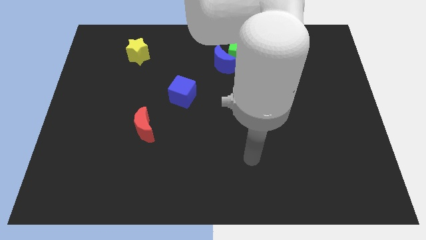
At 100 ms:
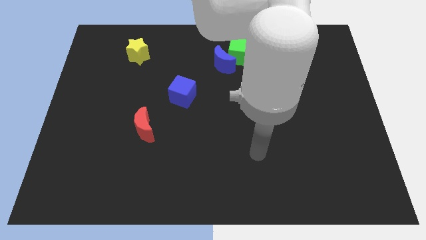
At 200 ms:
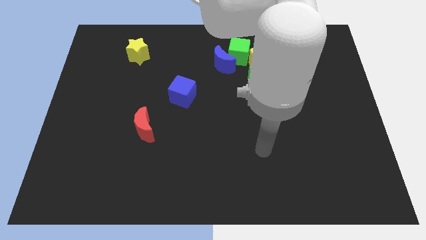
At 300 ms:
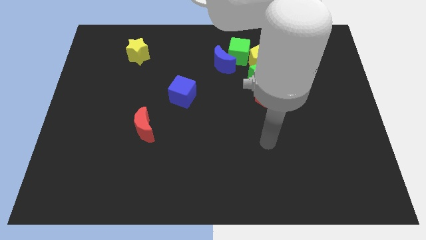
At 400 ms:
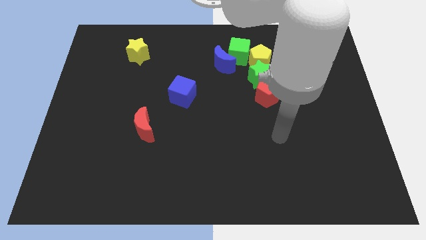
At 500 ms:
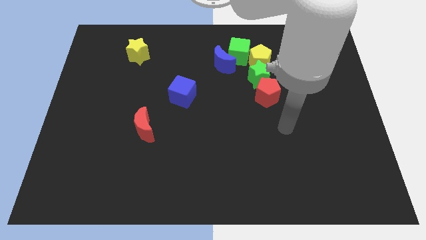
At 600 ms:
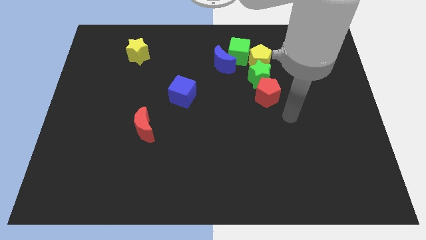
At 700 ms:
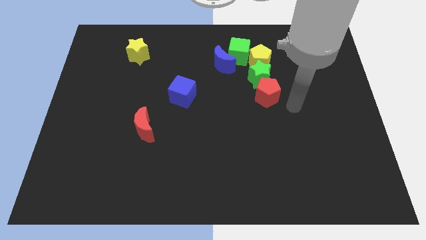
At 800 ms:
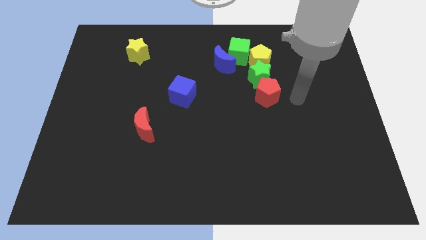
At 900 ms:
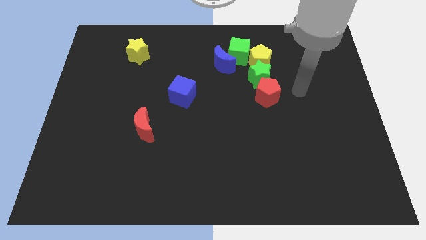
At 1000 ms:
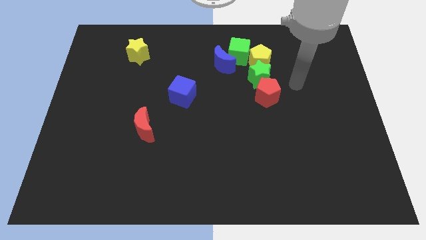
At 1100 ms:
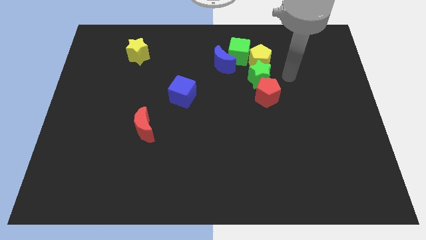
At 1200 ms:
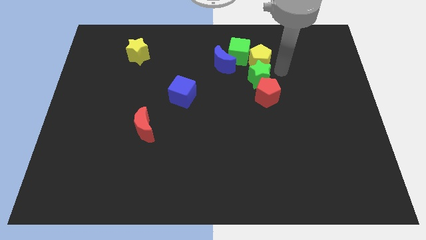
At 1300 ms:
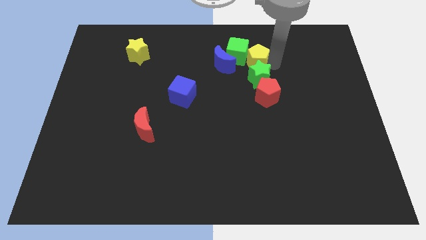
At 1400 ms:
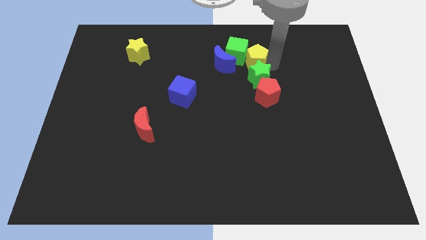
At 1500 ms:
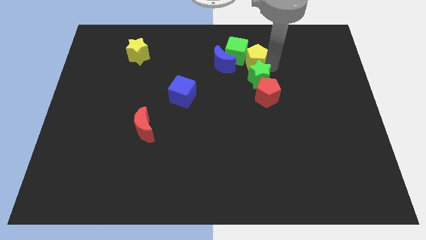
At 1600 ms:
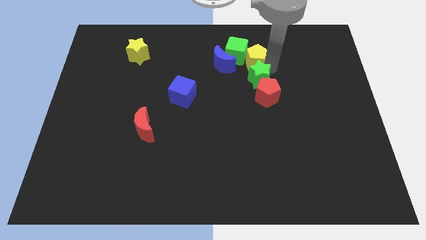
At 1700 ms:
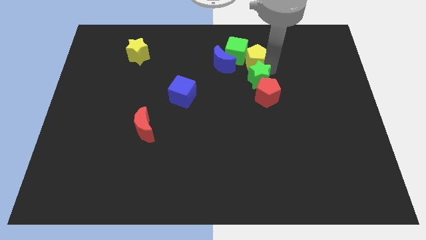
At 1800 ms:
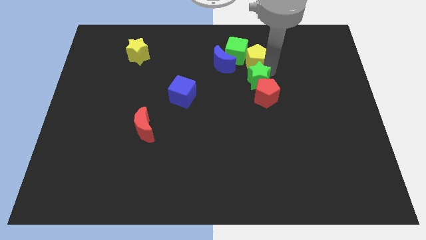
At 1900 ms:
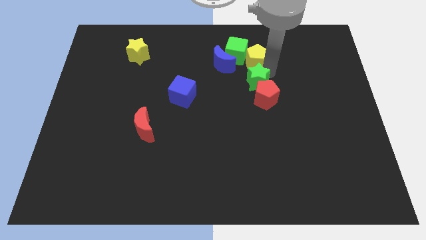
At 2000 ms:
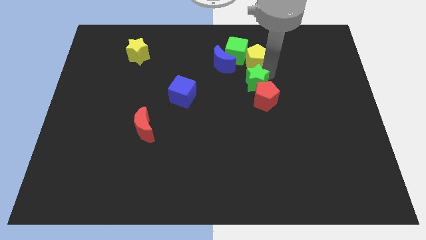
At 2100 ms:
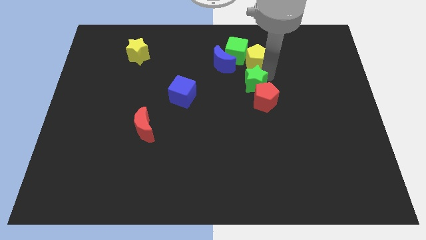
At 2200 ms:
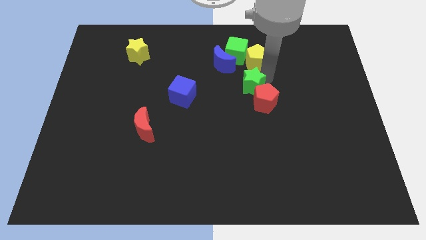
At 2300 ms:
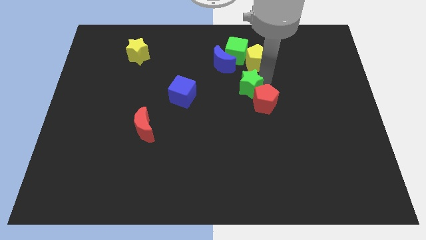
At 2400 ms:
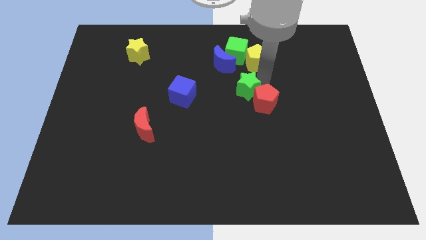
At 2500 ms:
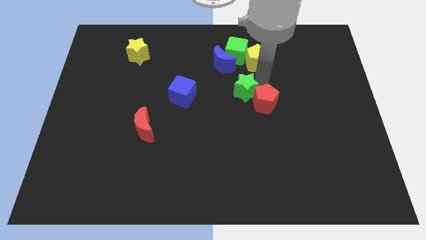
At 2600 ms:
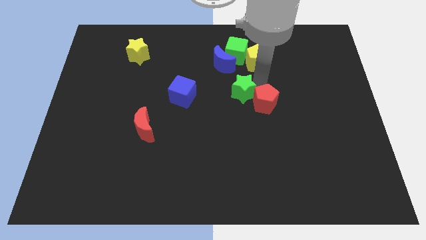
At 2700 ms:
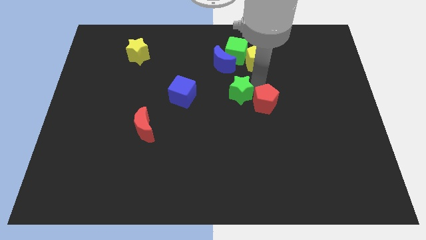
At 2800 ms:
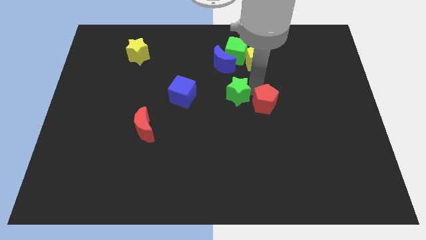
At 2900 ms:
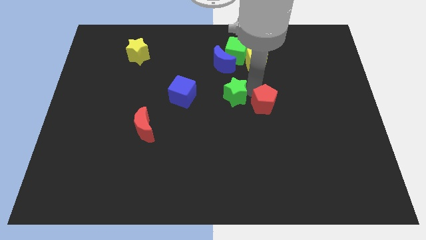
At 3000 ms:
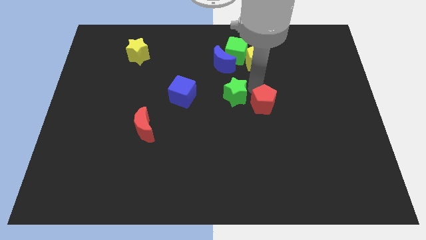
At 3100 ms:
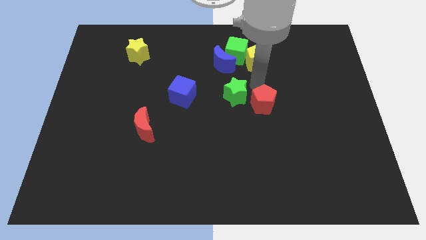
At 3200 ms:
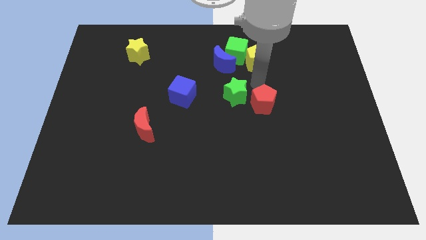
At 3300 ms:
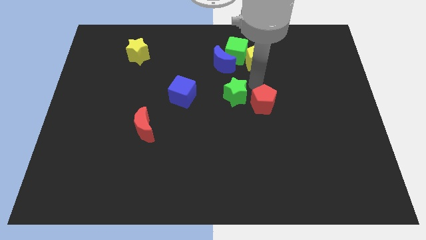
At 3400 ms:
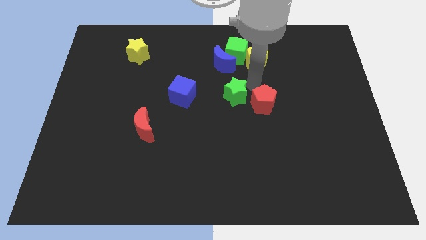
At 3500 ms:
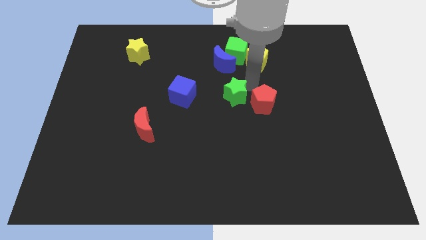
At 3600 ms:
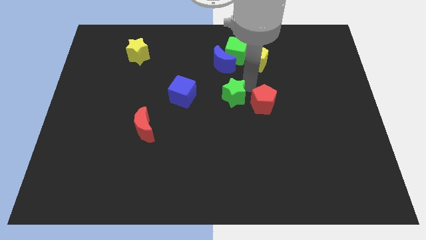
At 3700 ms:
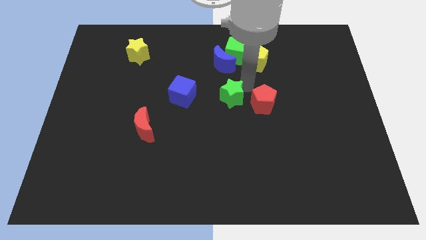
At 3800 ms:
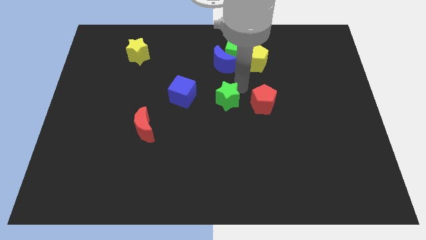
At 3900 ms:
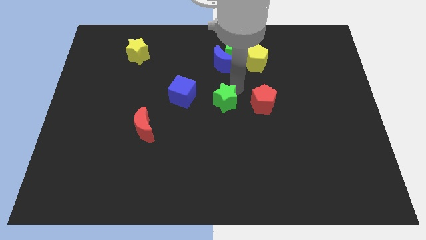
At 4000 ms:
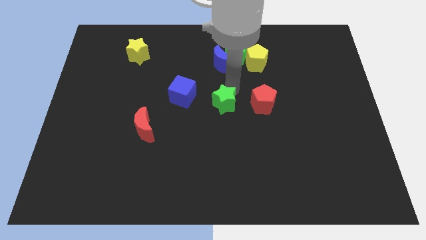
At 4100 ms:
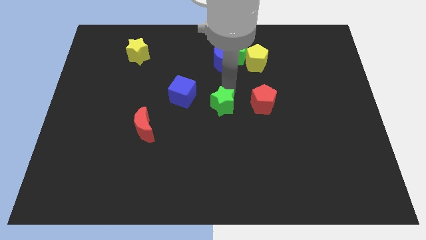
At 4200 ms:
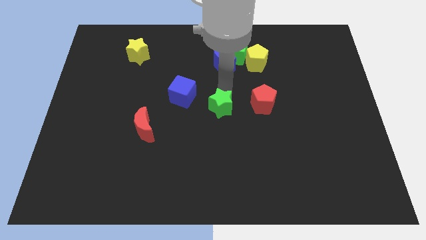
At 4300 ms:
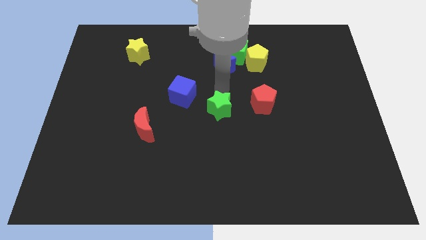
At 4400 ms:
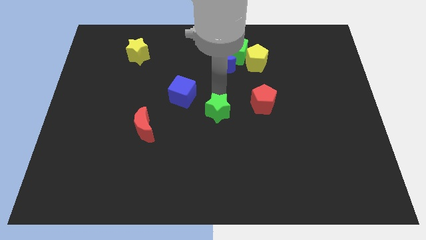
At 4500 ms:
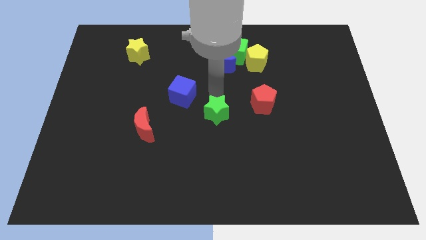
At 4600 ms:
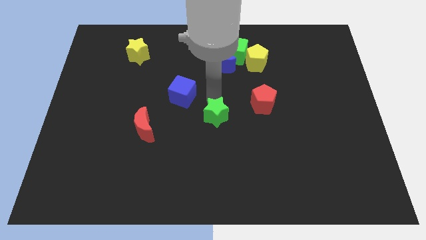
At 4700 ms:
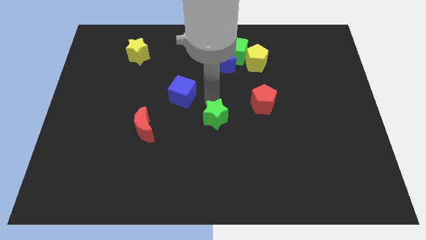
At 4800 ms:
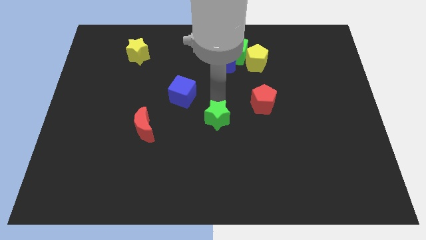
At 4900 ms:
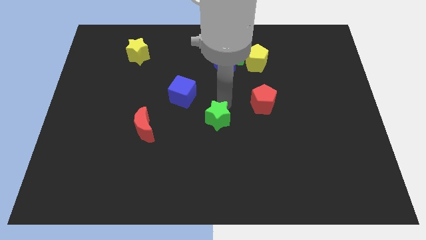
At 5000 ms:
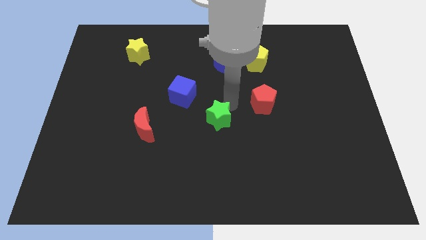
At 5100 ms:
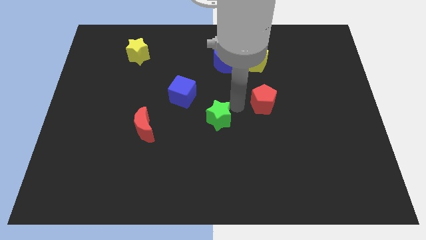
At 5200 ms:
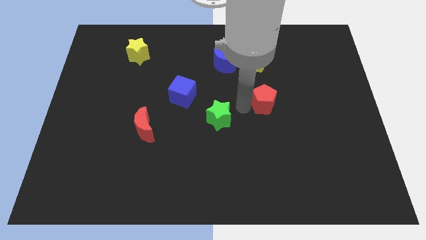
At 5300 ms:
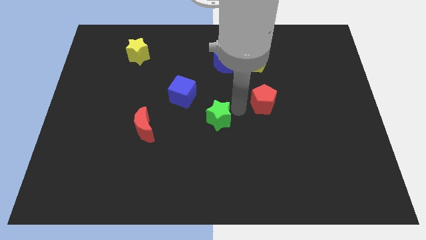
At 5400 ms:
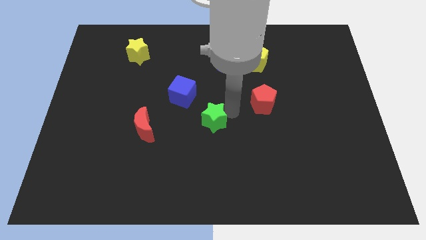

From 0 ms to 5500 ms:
put the green star to the right of the red moon

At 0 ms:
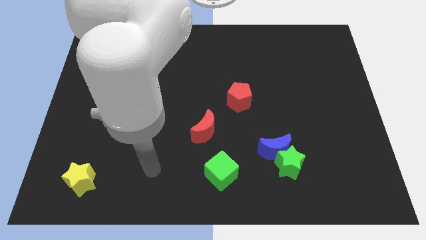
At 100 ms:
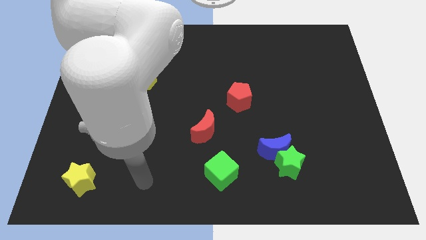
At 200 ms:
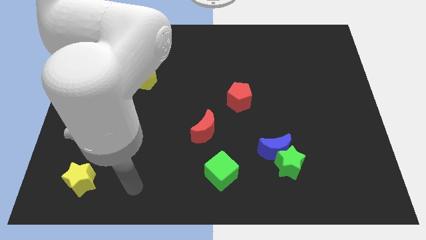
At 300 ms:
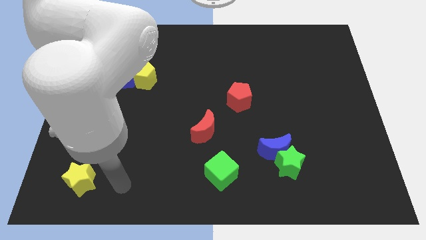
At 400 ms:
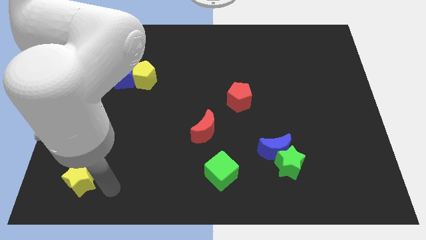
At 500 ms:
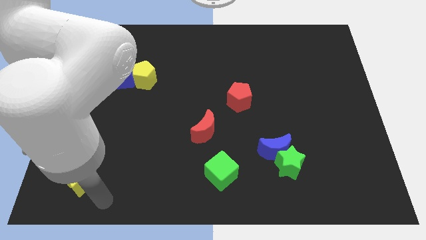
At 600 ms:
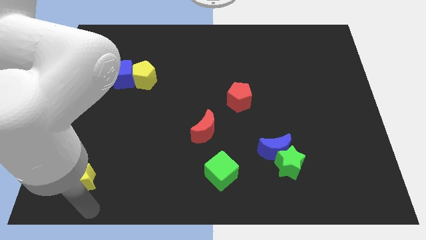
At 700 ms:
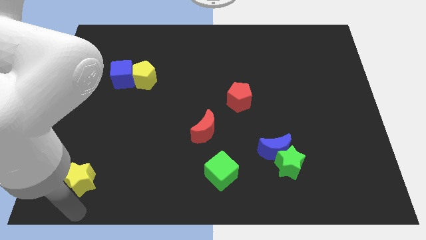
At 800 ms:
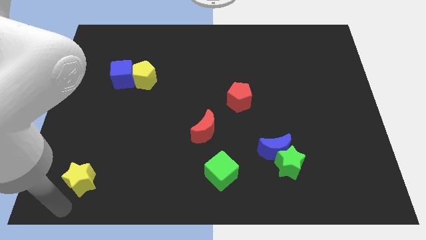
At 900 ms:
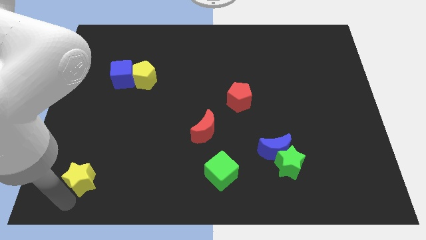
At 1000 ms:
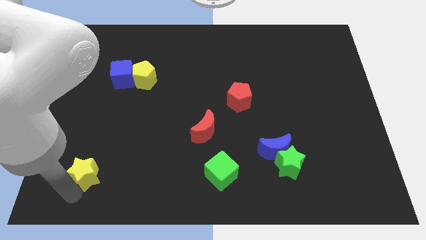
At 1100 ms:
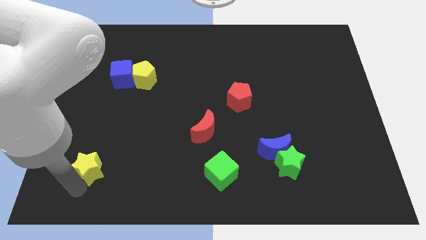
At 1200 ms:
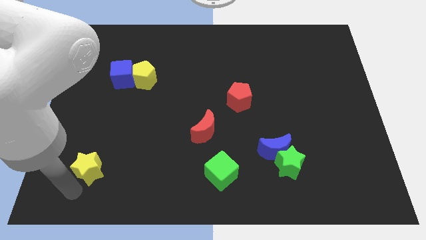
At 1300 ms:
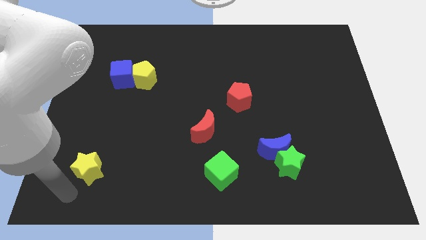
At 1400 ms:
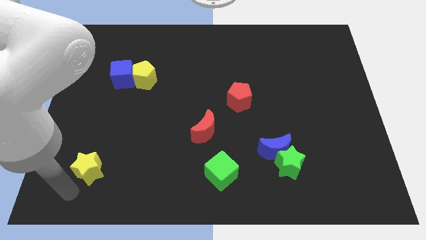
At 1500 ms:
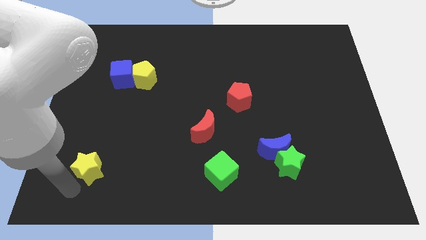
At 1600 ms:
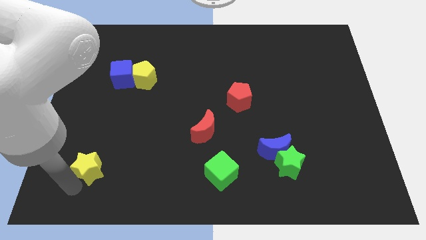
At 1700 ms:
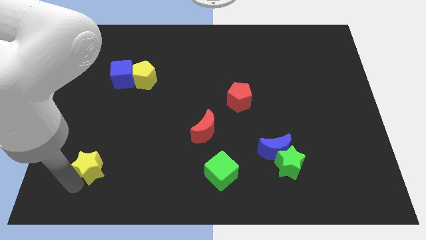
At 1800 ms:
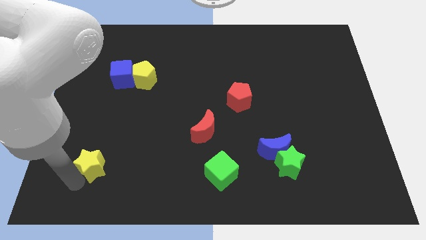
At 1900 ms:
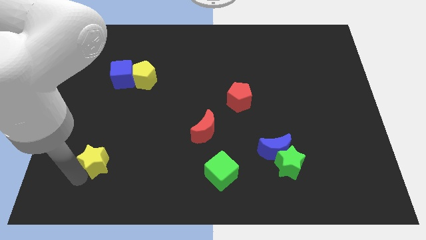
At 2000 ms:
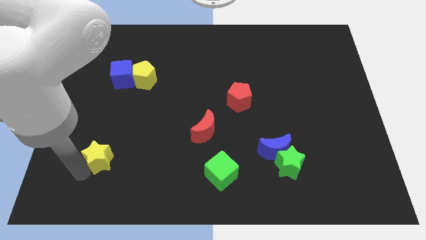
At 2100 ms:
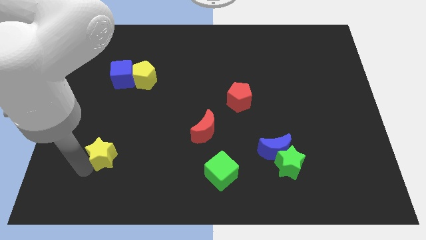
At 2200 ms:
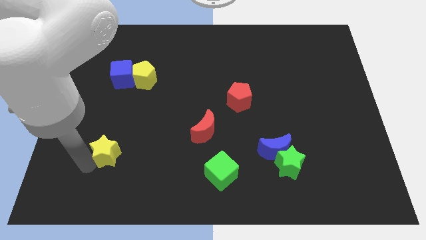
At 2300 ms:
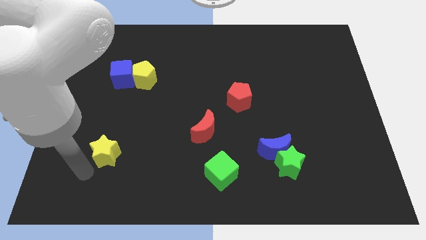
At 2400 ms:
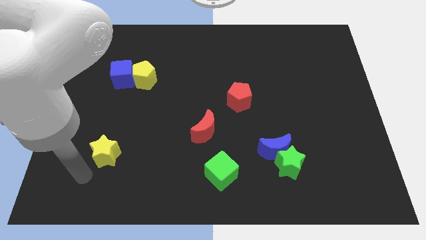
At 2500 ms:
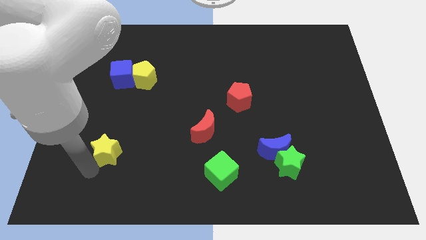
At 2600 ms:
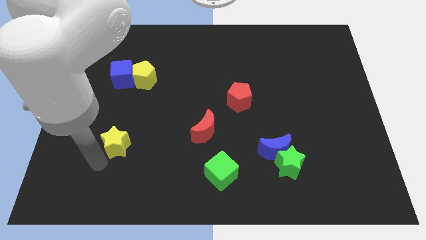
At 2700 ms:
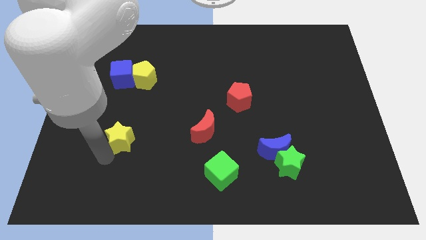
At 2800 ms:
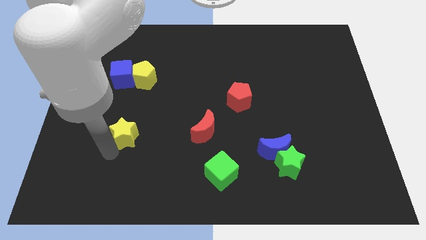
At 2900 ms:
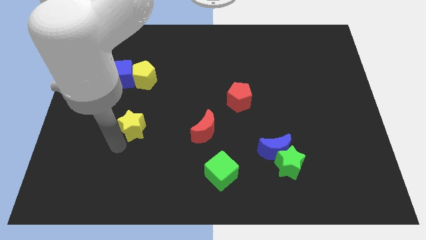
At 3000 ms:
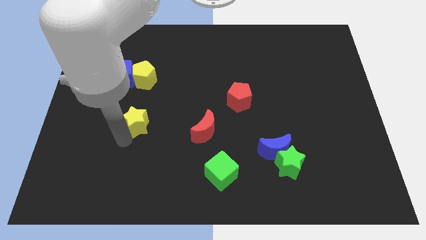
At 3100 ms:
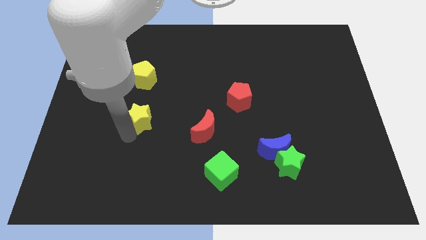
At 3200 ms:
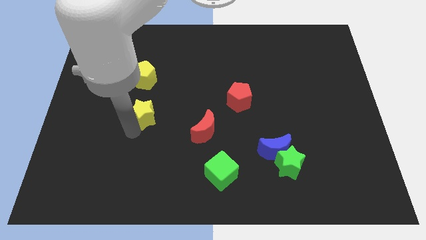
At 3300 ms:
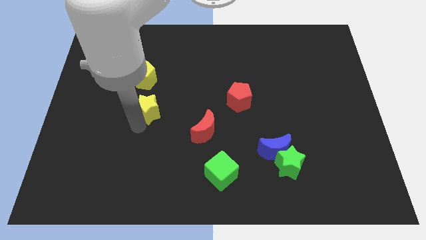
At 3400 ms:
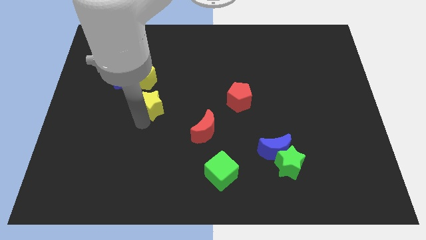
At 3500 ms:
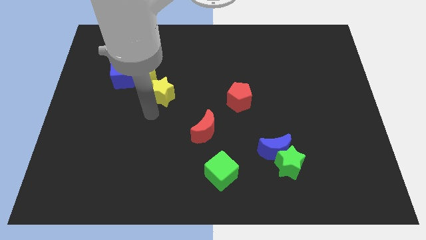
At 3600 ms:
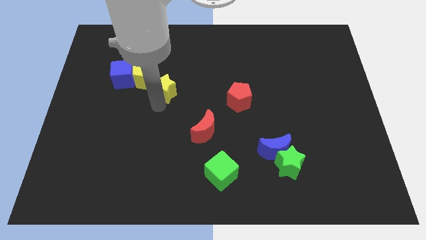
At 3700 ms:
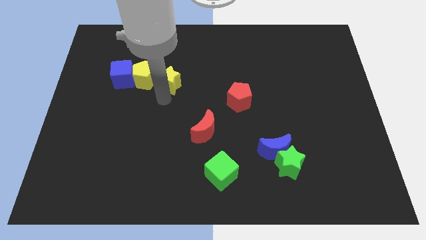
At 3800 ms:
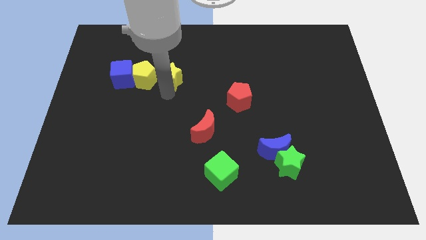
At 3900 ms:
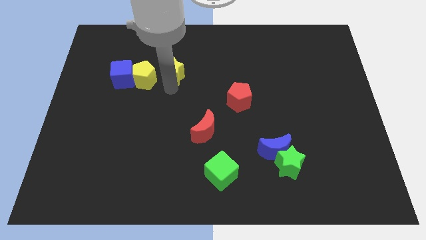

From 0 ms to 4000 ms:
slide the yellow star to the top right side of the yellow pentagon
